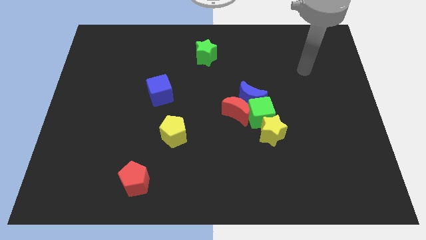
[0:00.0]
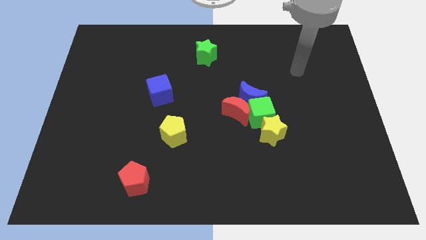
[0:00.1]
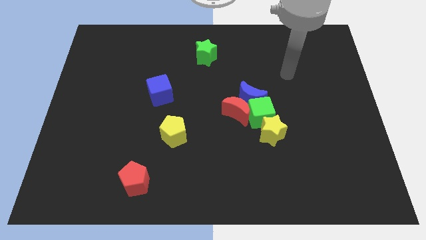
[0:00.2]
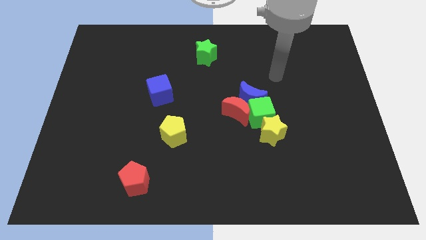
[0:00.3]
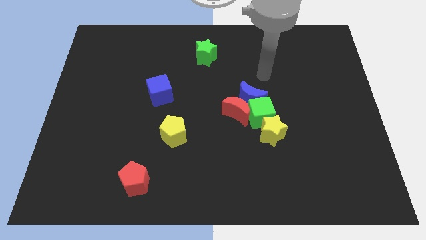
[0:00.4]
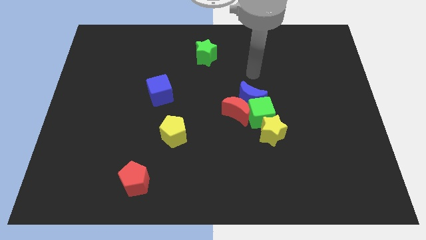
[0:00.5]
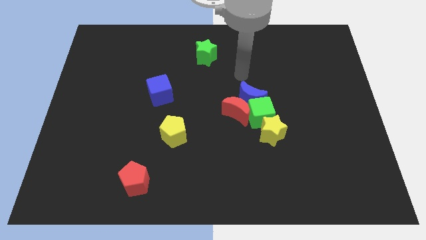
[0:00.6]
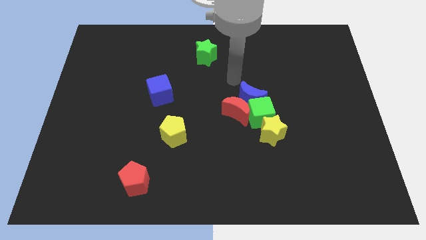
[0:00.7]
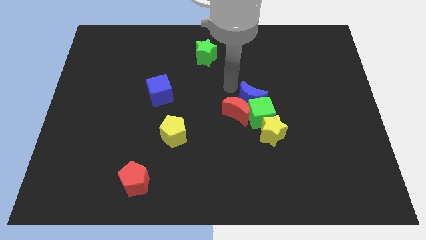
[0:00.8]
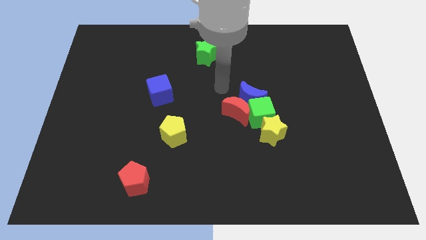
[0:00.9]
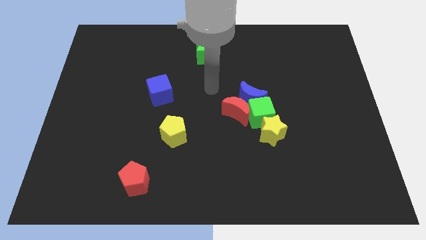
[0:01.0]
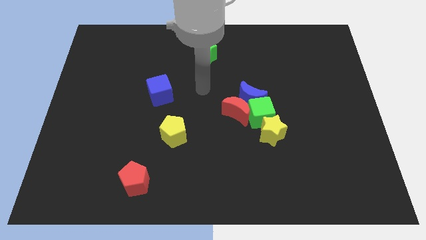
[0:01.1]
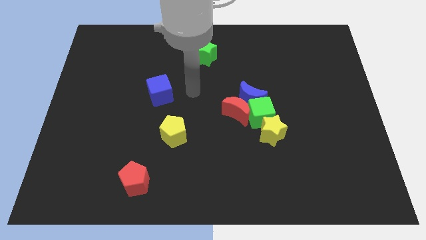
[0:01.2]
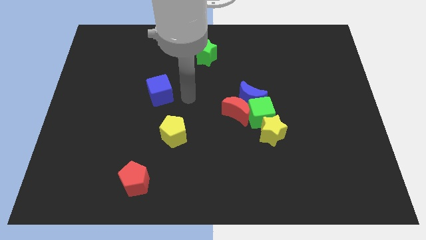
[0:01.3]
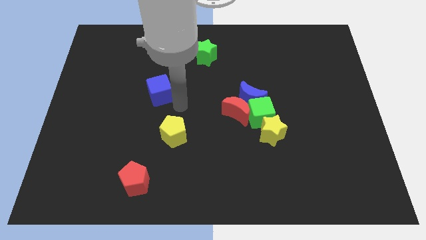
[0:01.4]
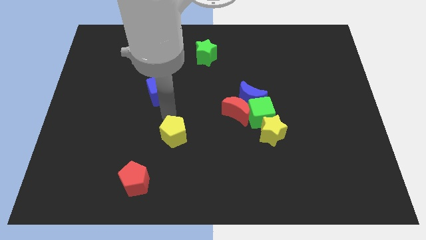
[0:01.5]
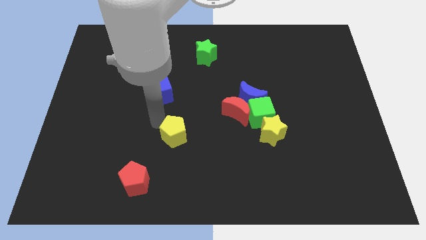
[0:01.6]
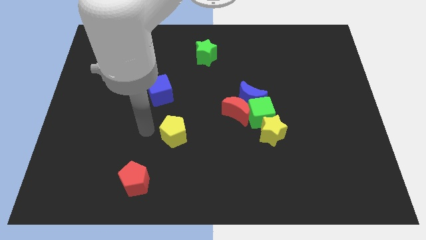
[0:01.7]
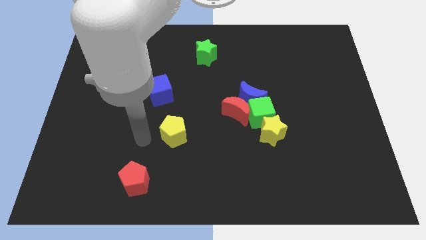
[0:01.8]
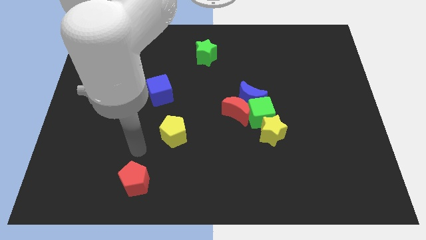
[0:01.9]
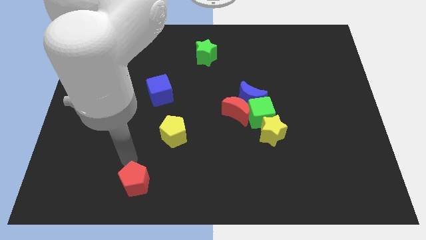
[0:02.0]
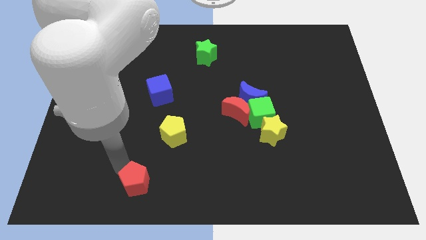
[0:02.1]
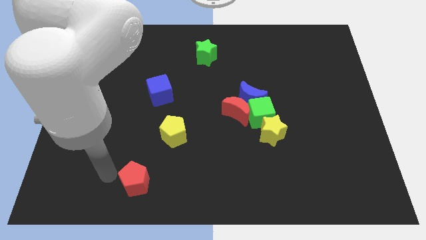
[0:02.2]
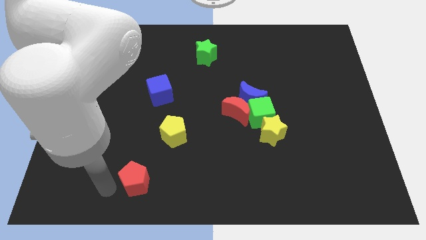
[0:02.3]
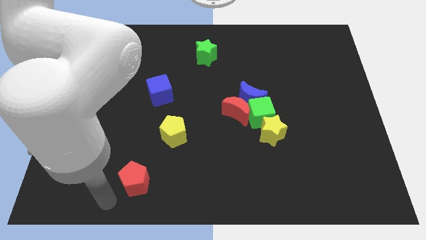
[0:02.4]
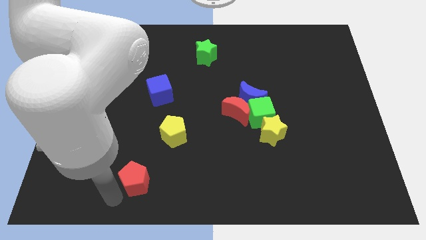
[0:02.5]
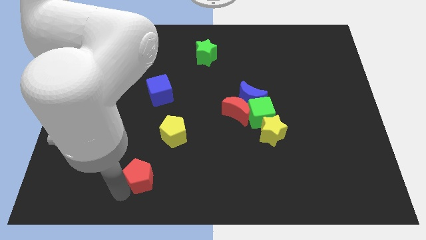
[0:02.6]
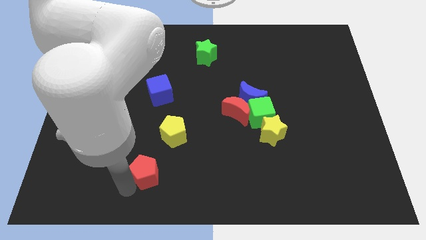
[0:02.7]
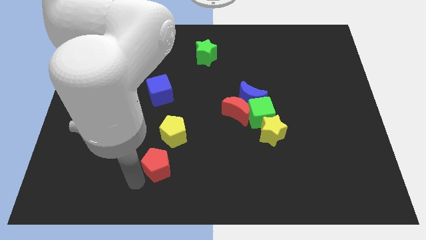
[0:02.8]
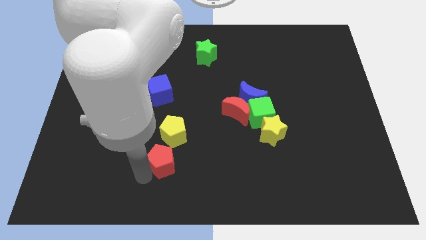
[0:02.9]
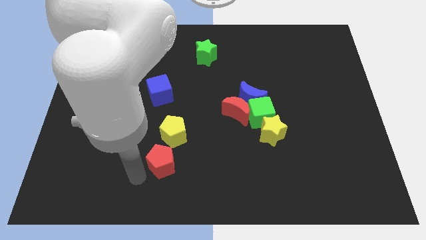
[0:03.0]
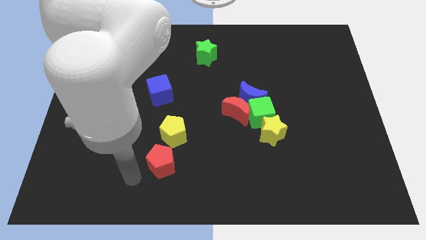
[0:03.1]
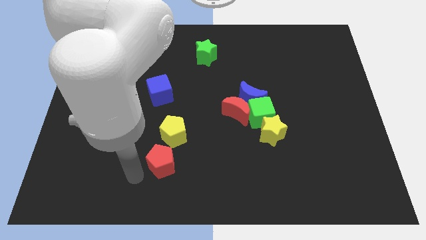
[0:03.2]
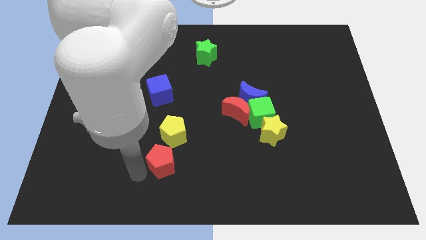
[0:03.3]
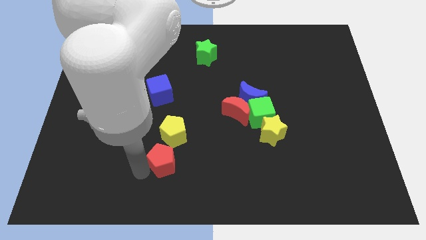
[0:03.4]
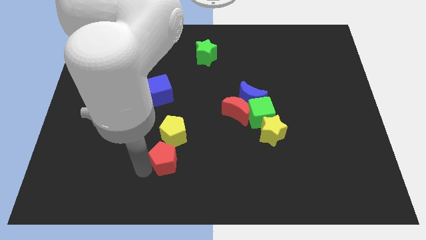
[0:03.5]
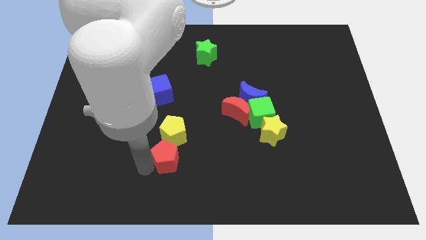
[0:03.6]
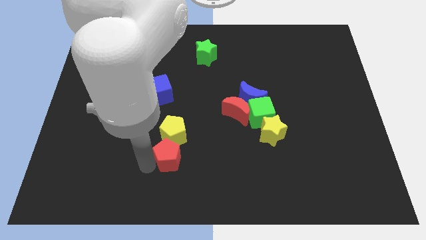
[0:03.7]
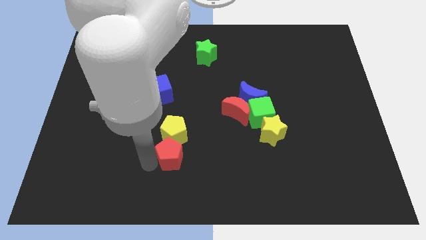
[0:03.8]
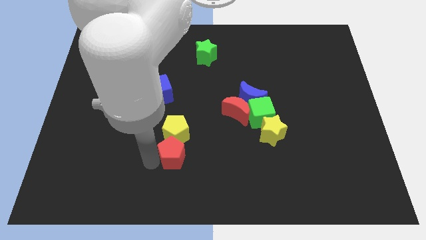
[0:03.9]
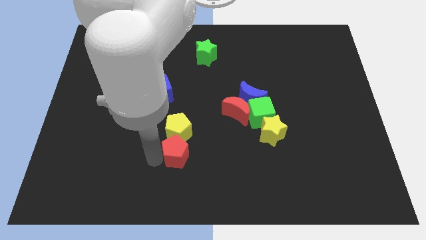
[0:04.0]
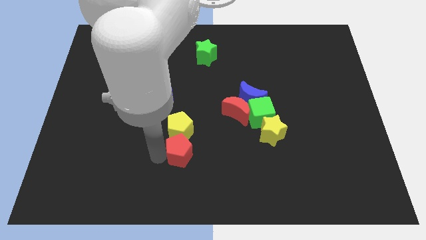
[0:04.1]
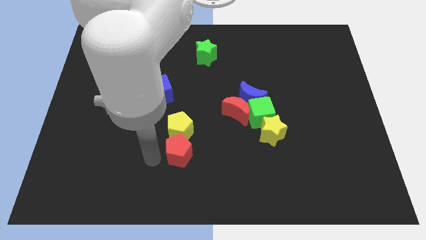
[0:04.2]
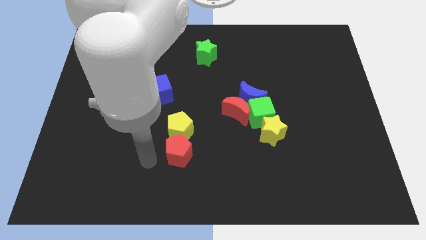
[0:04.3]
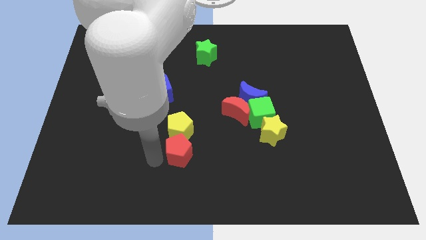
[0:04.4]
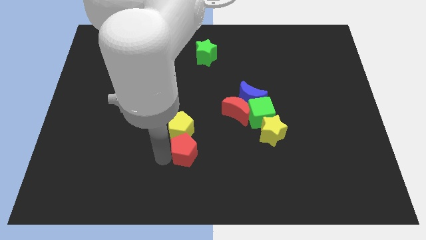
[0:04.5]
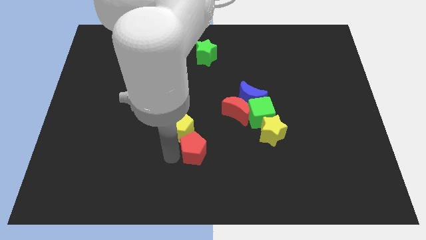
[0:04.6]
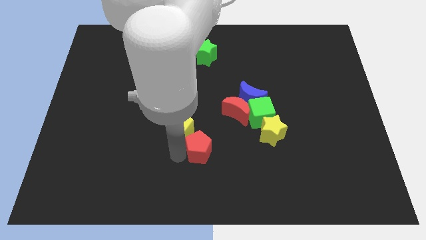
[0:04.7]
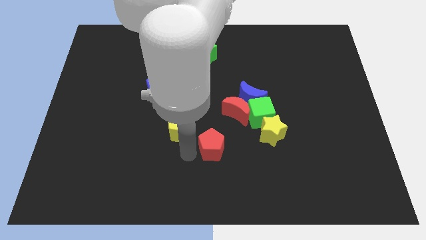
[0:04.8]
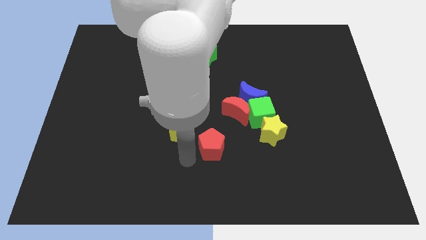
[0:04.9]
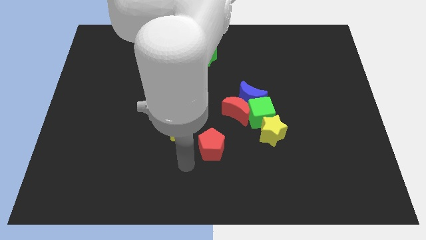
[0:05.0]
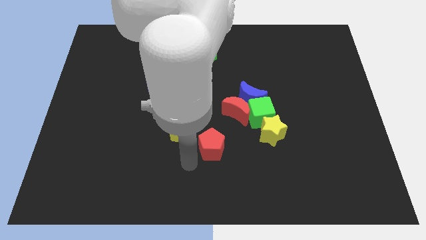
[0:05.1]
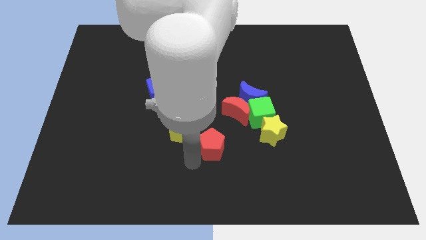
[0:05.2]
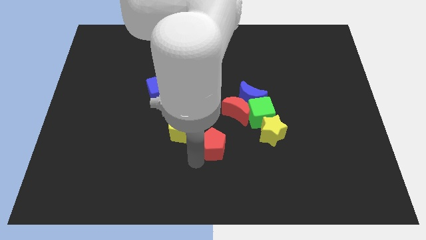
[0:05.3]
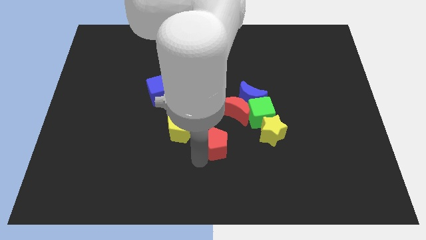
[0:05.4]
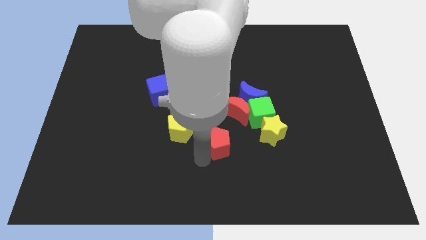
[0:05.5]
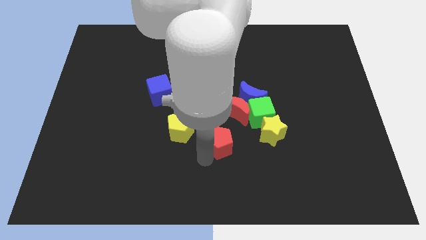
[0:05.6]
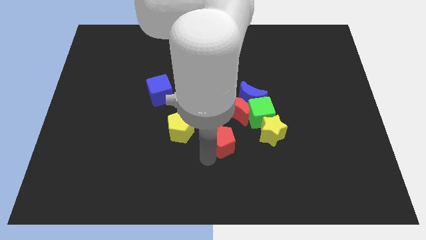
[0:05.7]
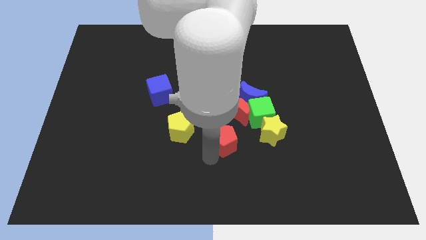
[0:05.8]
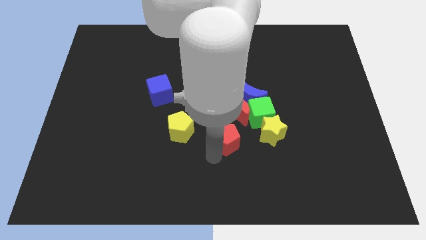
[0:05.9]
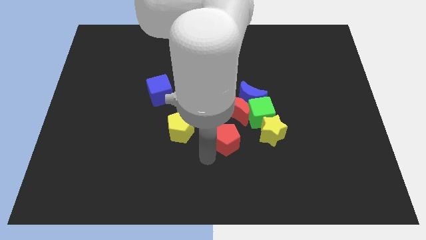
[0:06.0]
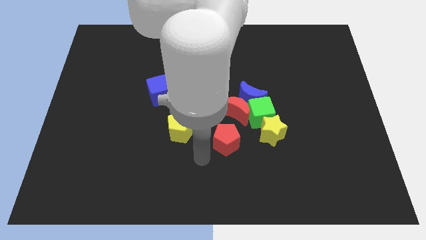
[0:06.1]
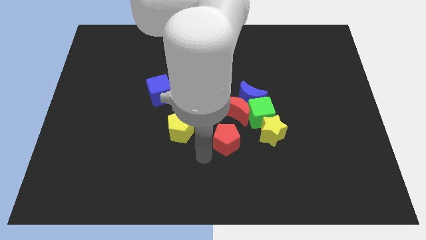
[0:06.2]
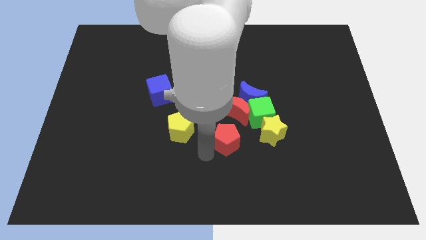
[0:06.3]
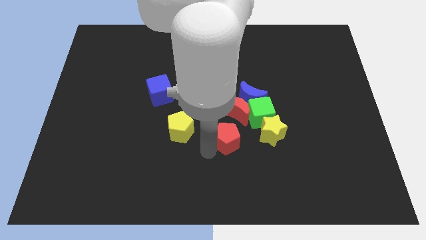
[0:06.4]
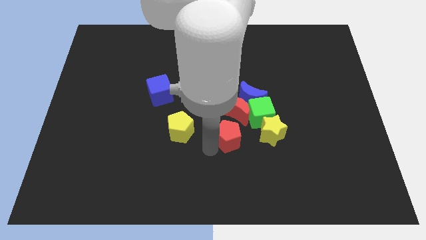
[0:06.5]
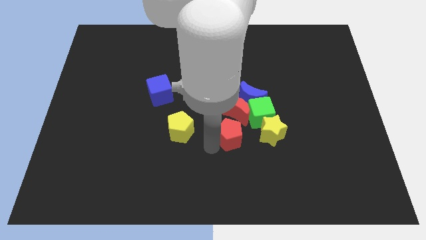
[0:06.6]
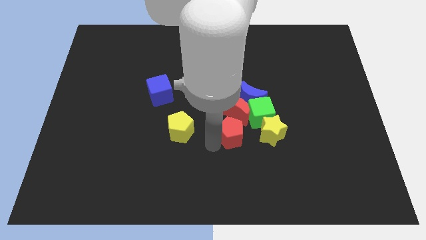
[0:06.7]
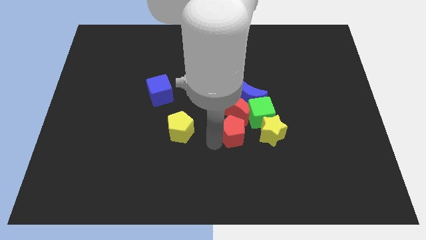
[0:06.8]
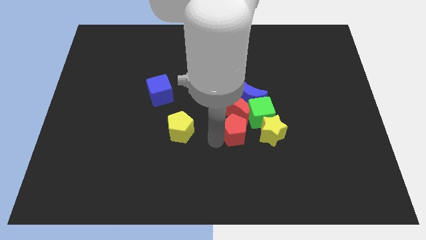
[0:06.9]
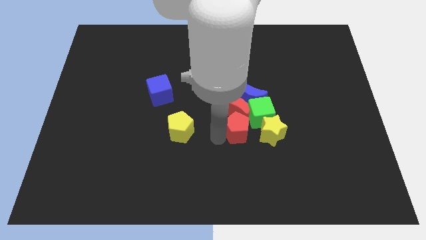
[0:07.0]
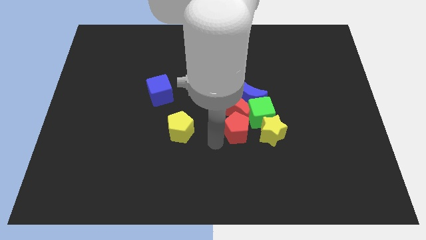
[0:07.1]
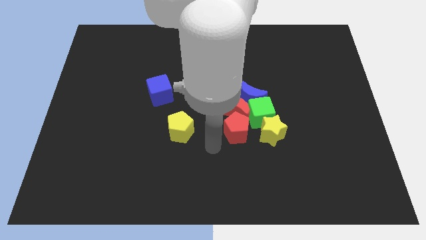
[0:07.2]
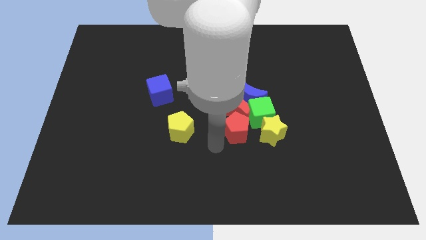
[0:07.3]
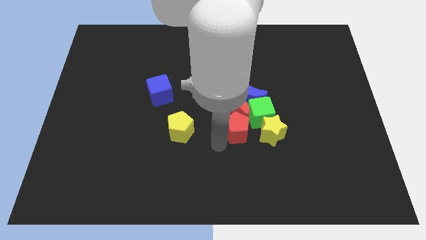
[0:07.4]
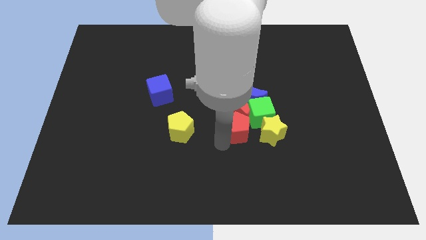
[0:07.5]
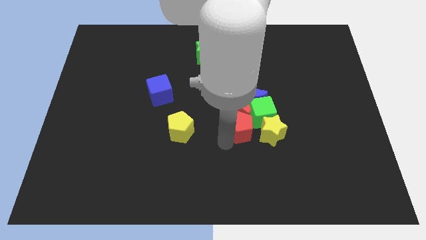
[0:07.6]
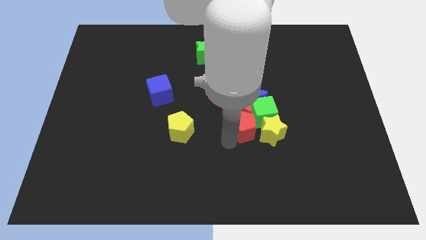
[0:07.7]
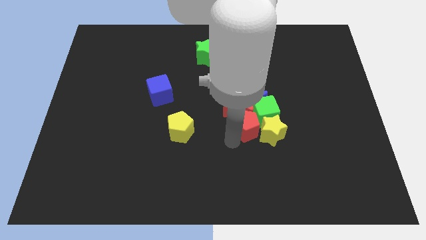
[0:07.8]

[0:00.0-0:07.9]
move the red pentagon towards the green cube
